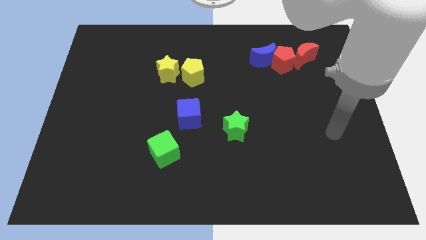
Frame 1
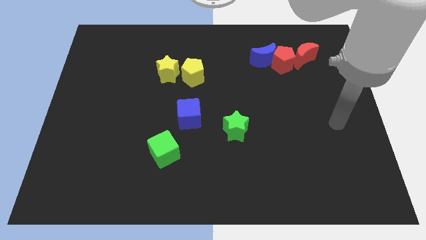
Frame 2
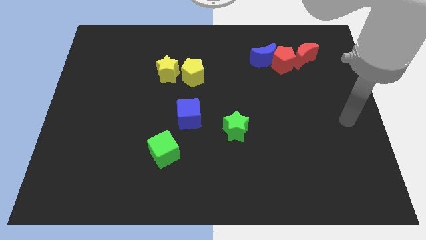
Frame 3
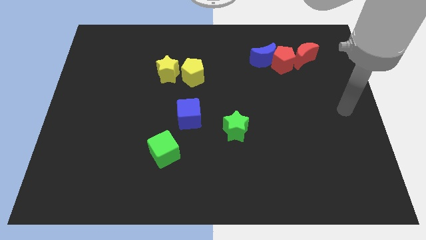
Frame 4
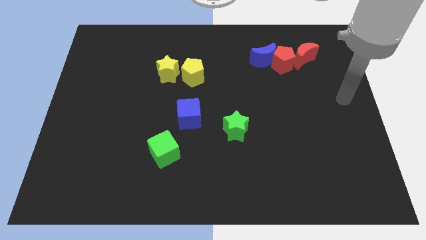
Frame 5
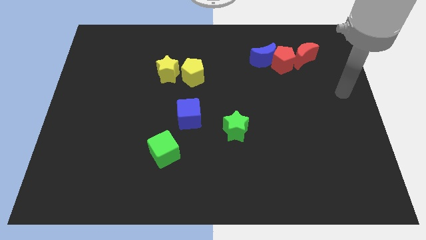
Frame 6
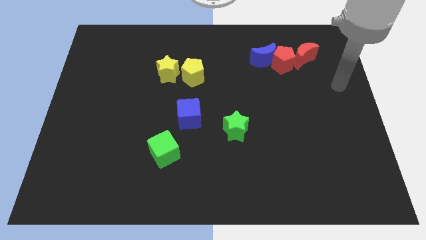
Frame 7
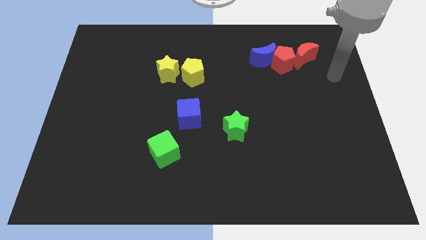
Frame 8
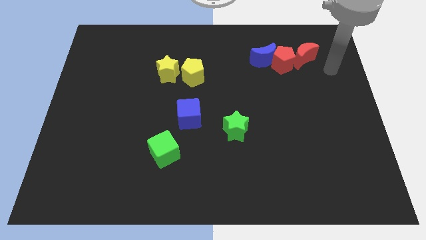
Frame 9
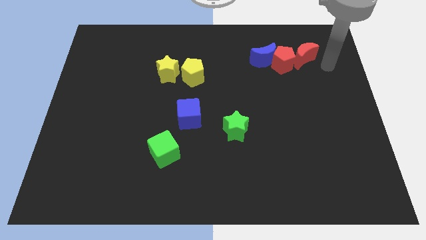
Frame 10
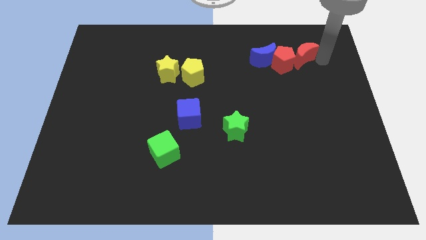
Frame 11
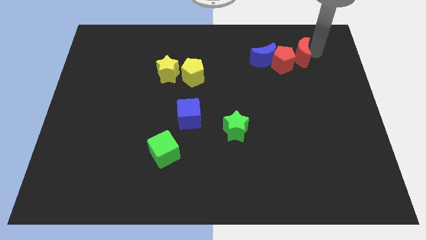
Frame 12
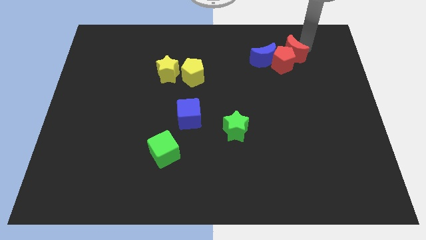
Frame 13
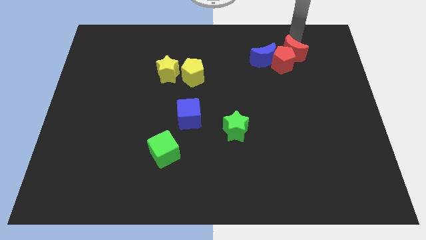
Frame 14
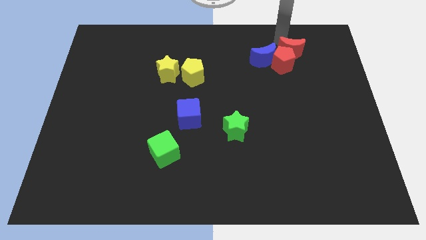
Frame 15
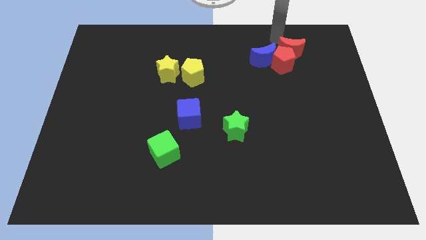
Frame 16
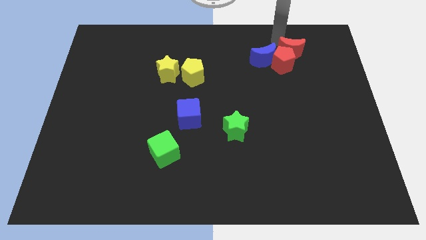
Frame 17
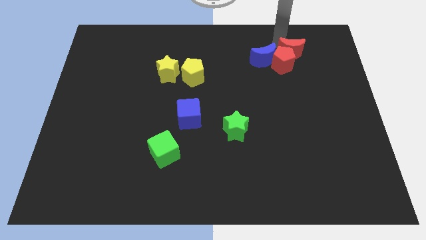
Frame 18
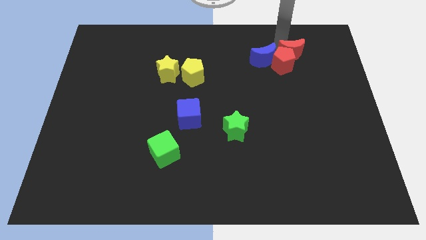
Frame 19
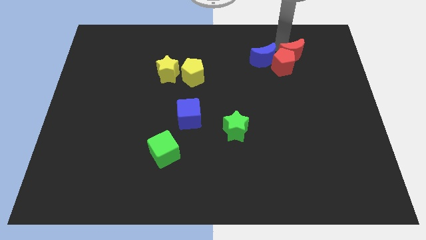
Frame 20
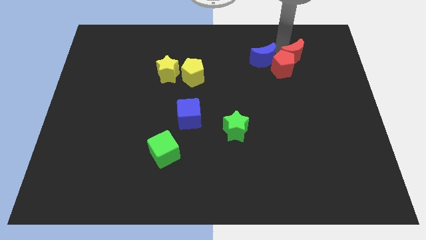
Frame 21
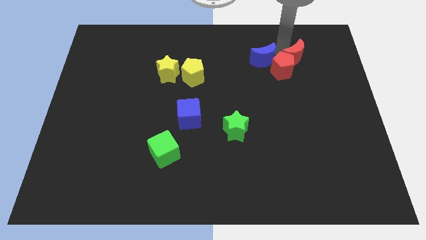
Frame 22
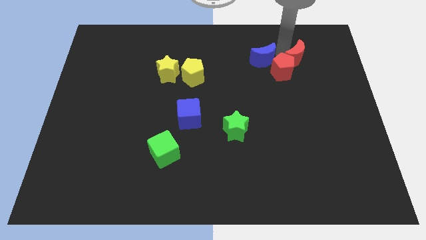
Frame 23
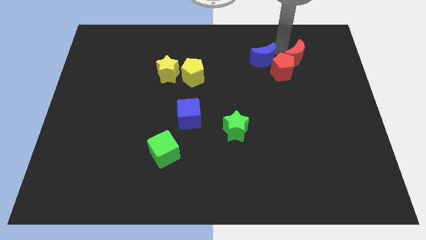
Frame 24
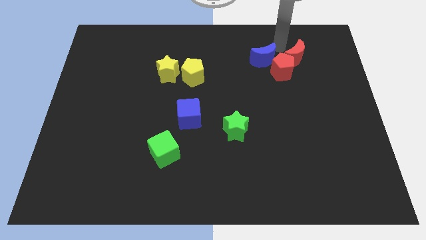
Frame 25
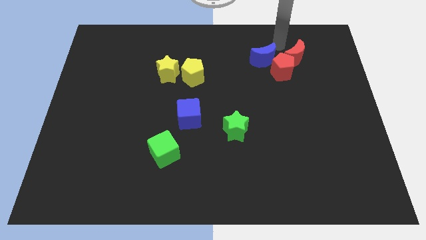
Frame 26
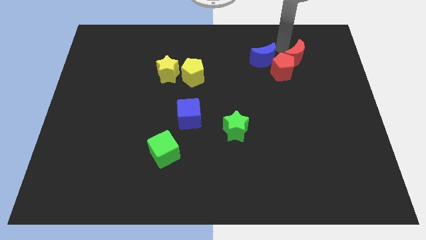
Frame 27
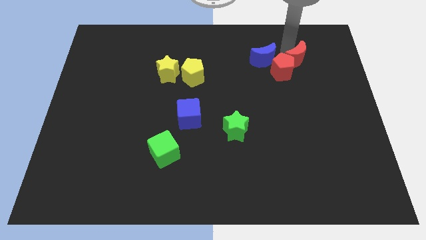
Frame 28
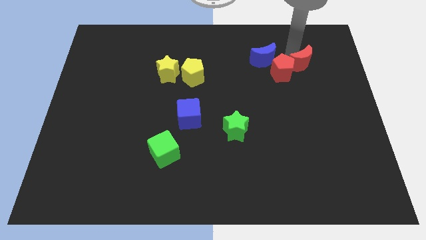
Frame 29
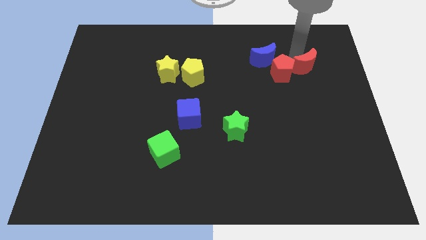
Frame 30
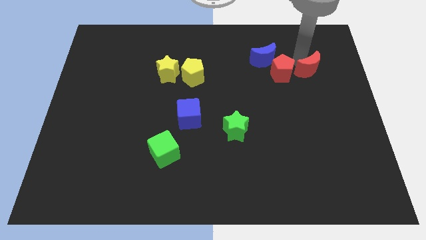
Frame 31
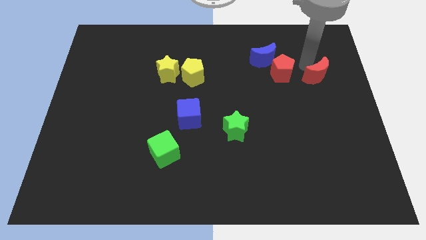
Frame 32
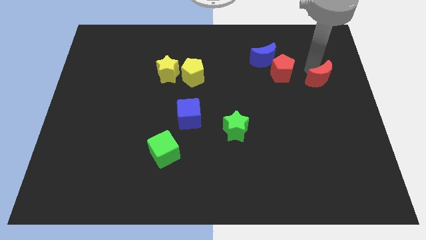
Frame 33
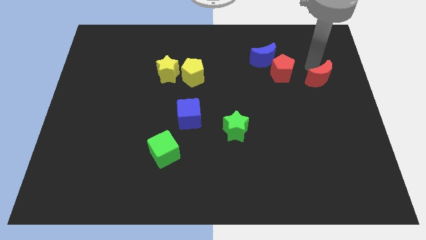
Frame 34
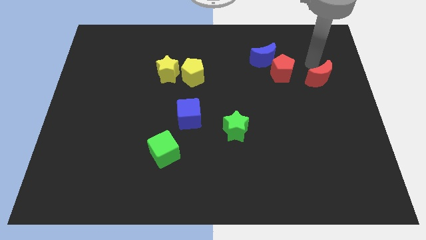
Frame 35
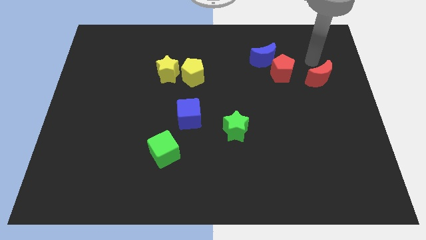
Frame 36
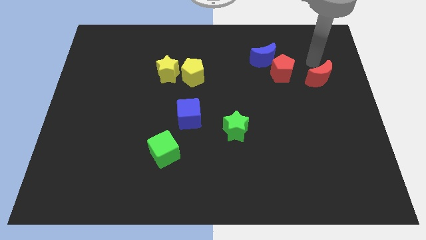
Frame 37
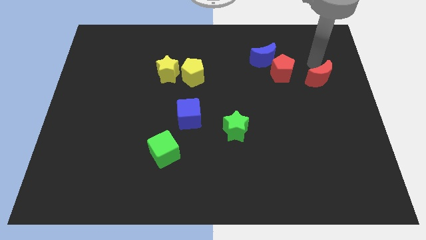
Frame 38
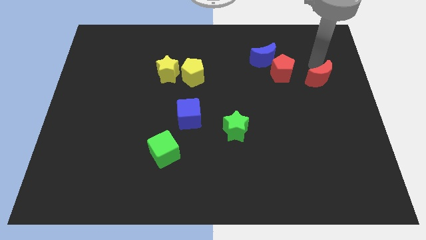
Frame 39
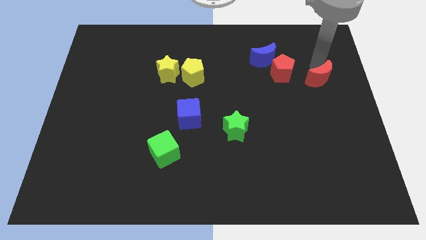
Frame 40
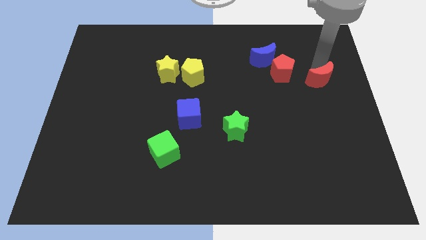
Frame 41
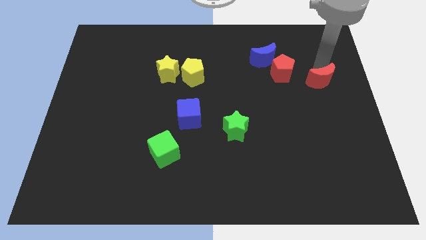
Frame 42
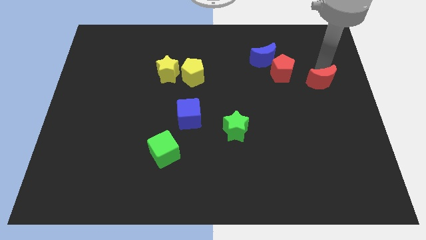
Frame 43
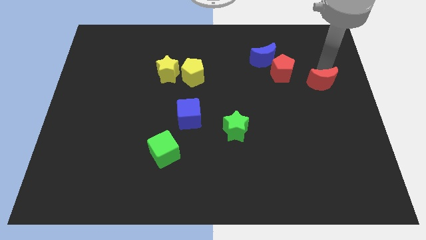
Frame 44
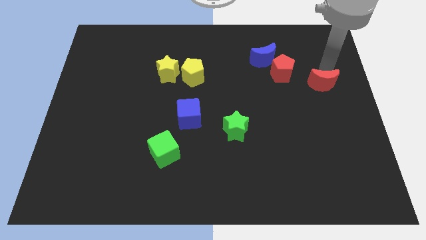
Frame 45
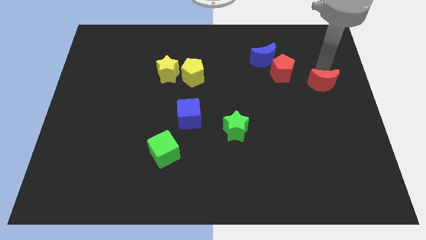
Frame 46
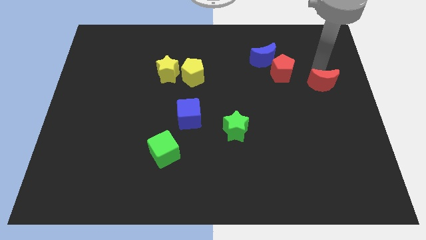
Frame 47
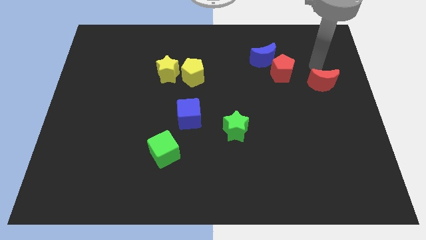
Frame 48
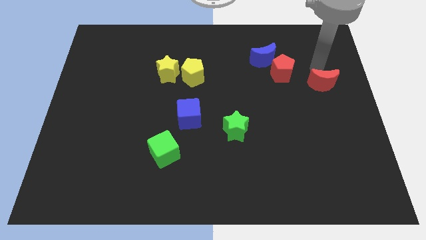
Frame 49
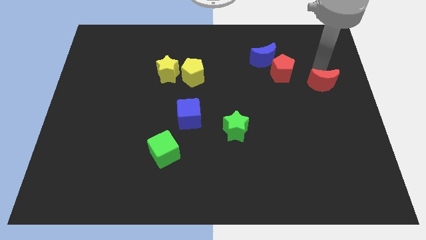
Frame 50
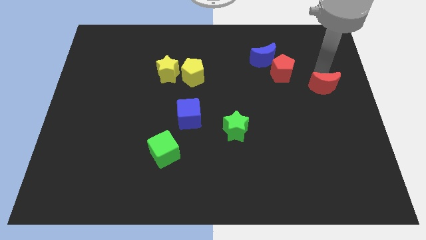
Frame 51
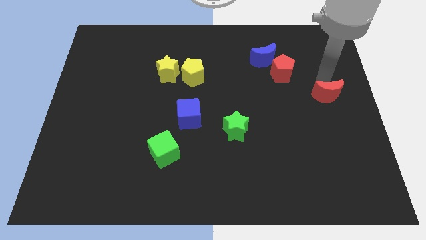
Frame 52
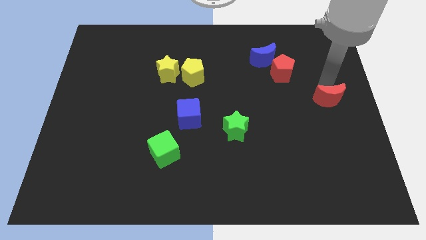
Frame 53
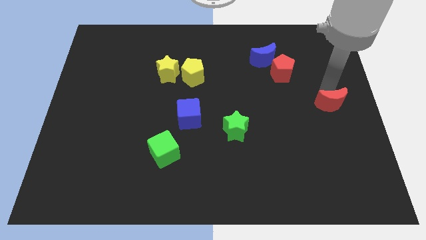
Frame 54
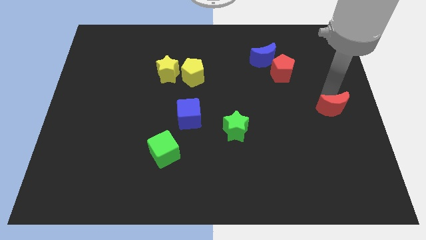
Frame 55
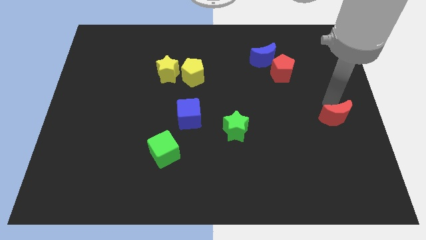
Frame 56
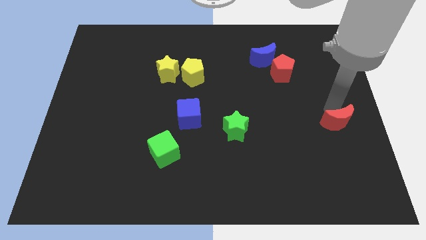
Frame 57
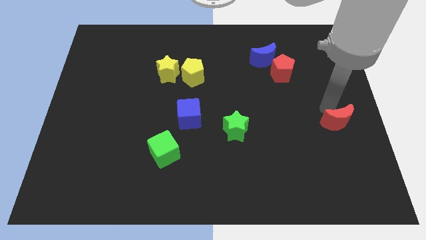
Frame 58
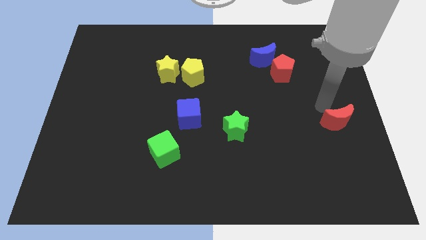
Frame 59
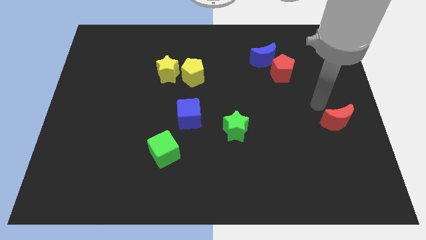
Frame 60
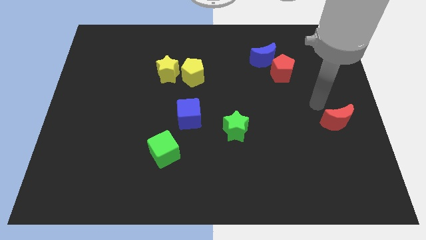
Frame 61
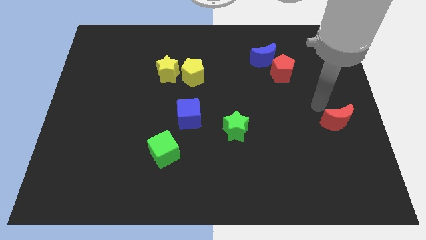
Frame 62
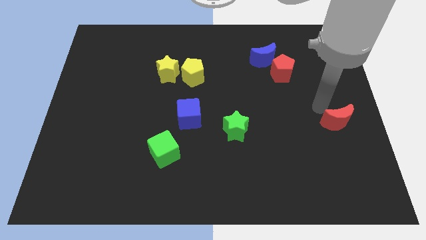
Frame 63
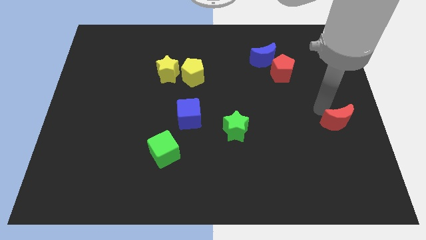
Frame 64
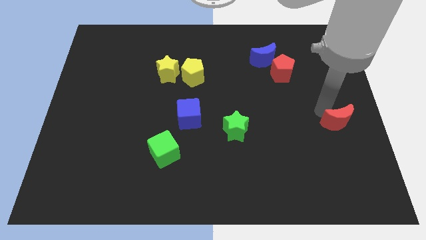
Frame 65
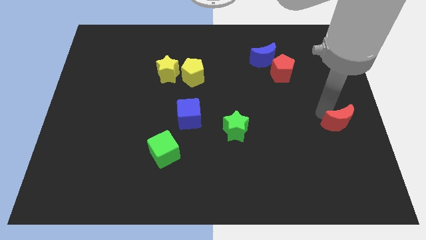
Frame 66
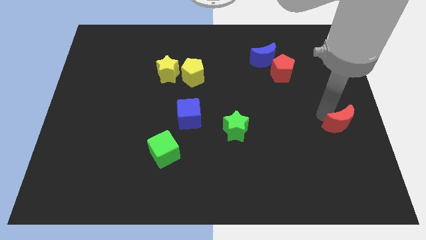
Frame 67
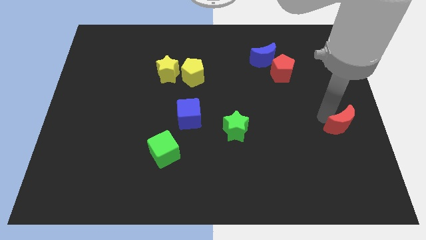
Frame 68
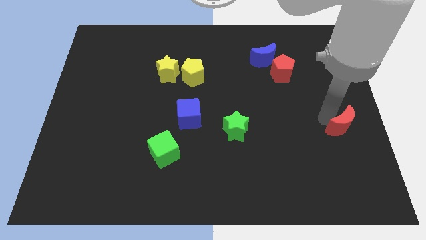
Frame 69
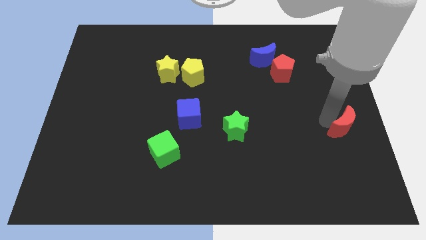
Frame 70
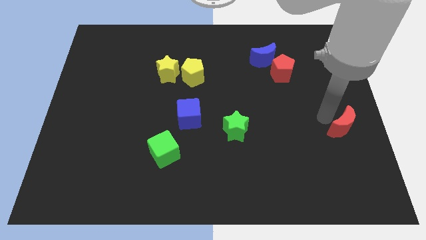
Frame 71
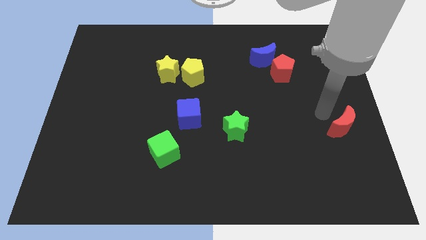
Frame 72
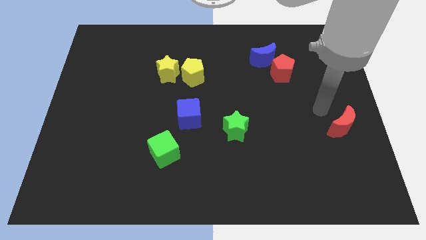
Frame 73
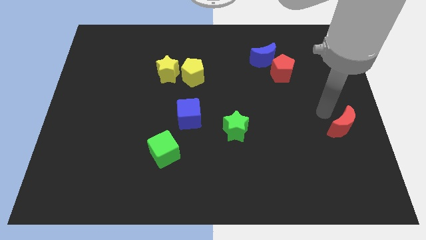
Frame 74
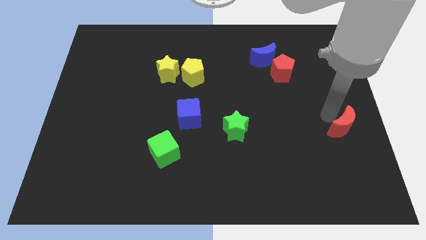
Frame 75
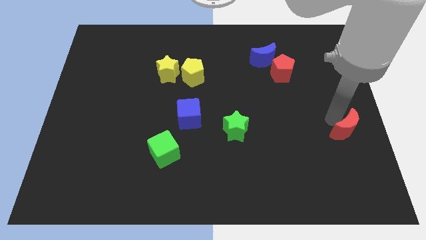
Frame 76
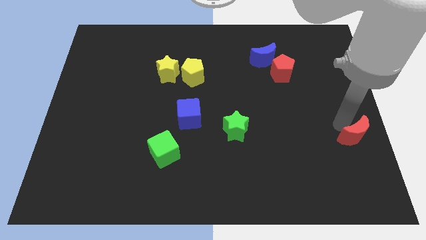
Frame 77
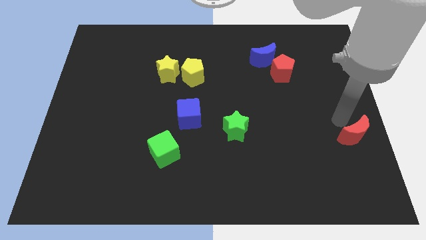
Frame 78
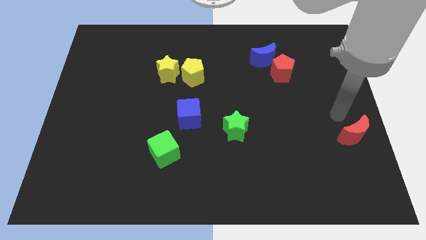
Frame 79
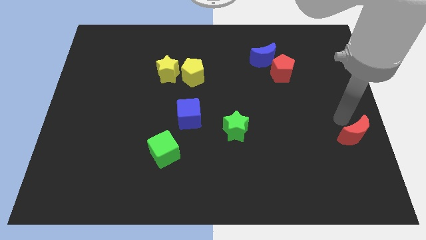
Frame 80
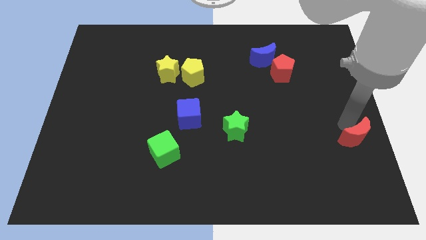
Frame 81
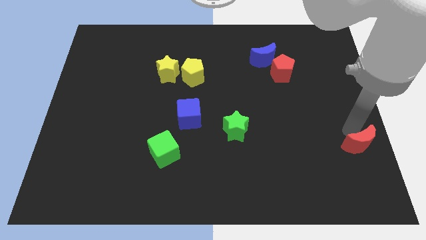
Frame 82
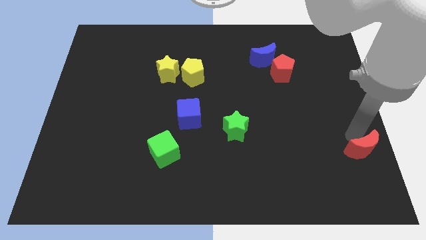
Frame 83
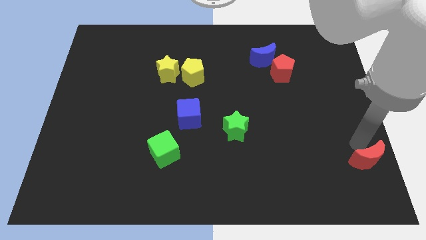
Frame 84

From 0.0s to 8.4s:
push the red moon to the bottom right corner
